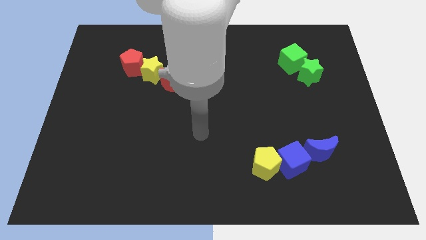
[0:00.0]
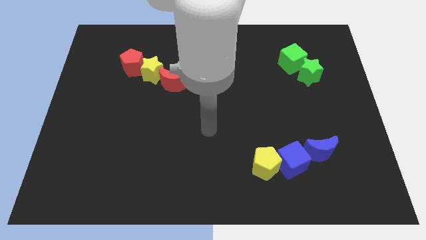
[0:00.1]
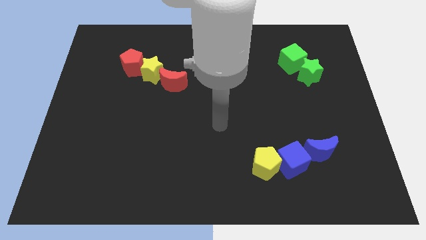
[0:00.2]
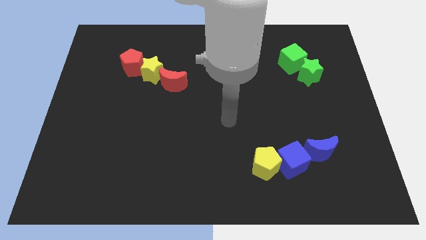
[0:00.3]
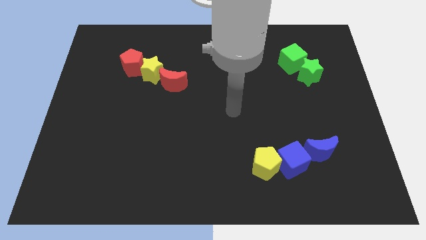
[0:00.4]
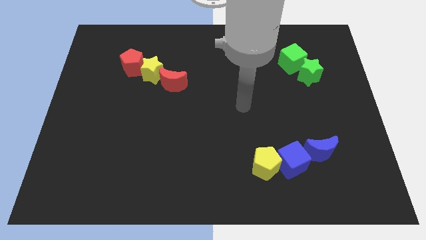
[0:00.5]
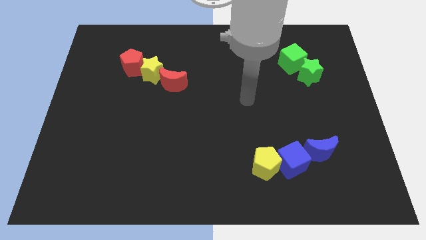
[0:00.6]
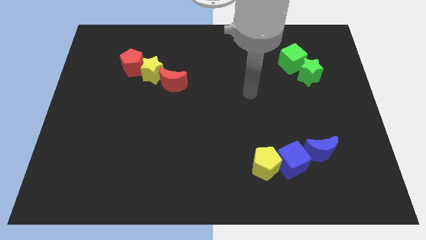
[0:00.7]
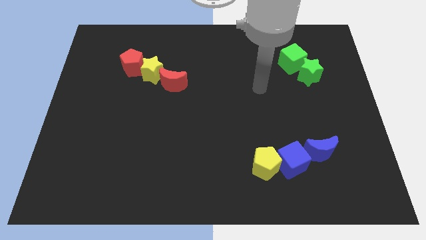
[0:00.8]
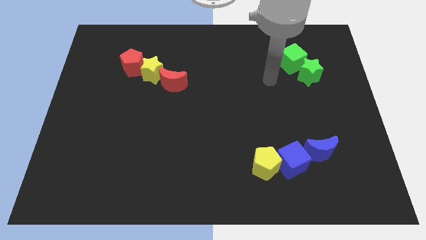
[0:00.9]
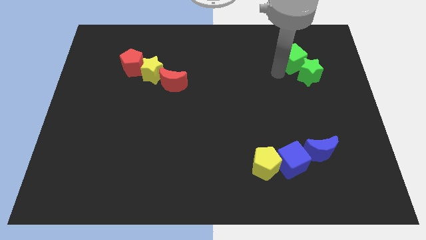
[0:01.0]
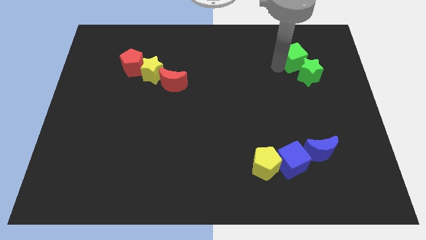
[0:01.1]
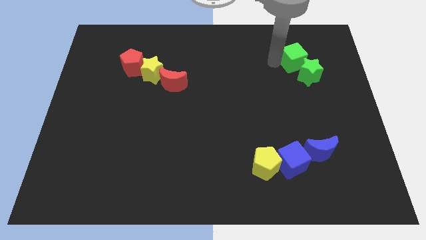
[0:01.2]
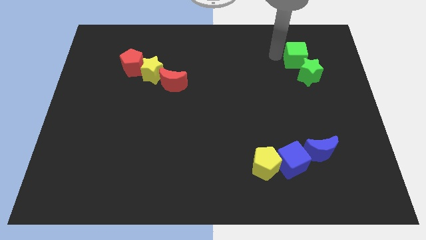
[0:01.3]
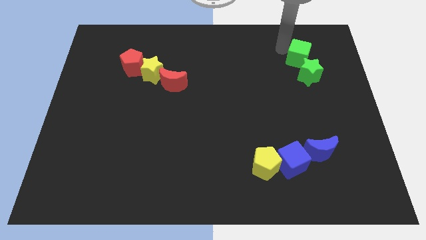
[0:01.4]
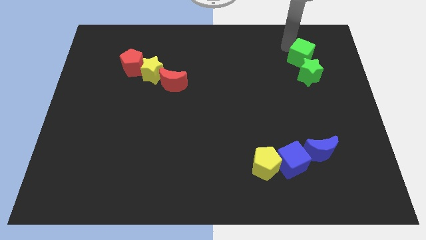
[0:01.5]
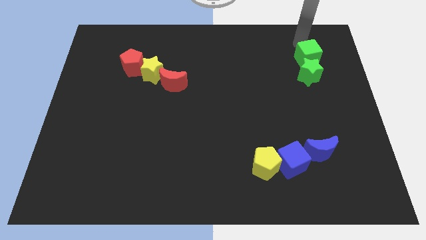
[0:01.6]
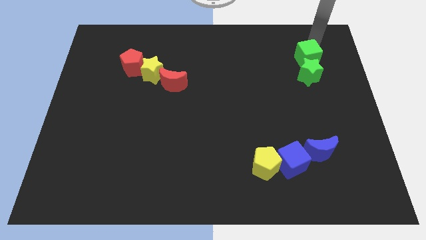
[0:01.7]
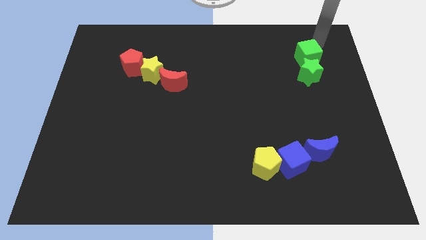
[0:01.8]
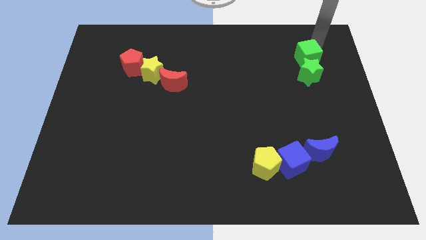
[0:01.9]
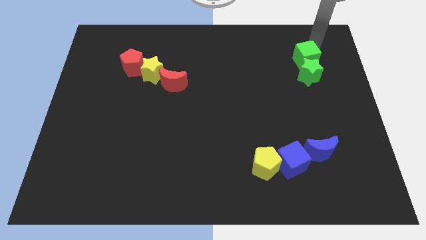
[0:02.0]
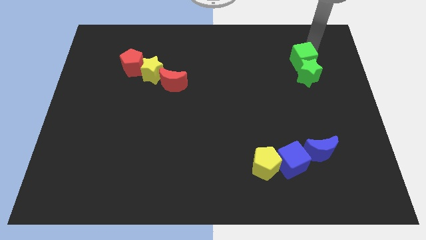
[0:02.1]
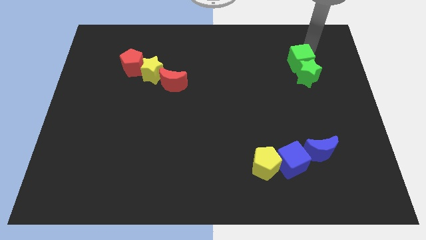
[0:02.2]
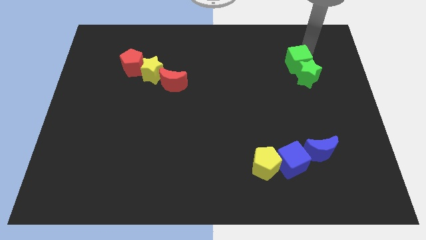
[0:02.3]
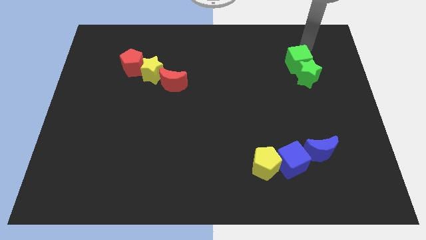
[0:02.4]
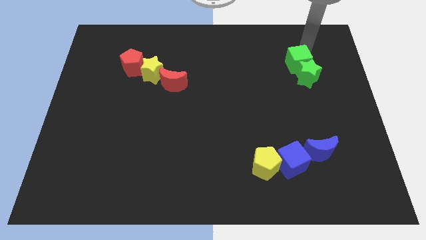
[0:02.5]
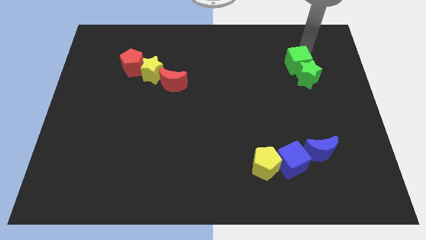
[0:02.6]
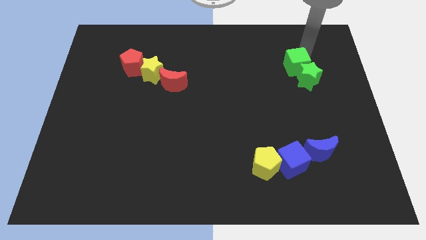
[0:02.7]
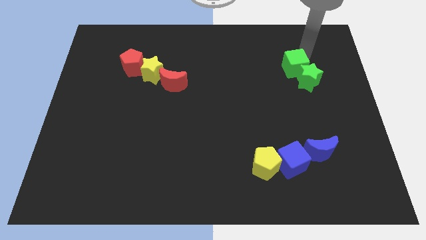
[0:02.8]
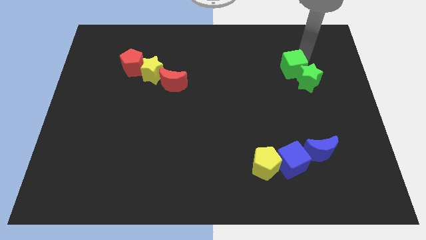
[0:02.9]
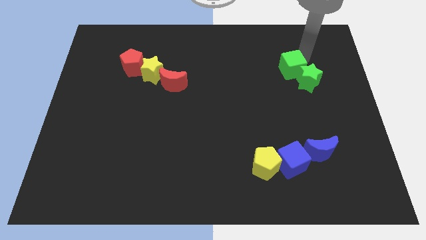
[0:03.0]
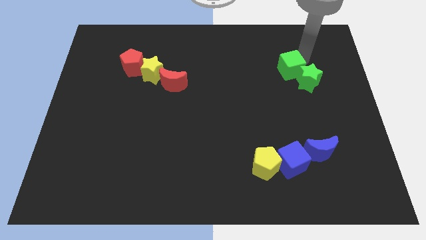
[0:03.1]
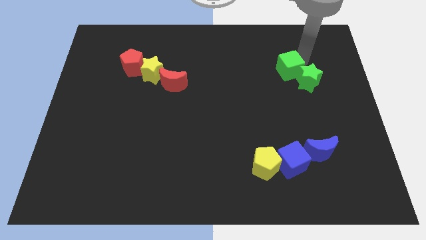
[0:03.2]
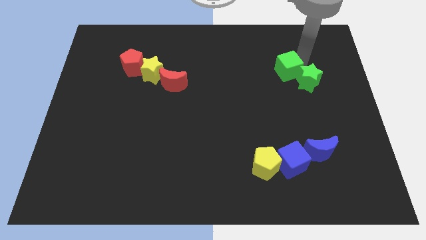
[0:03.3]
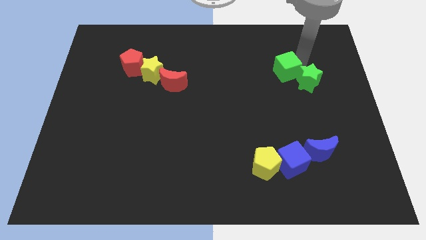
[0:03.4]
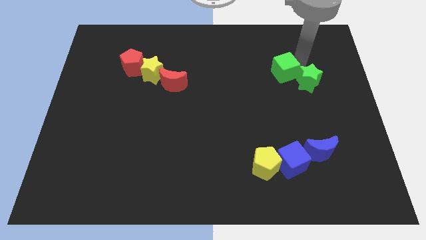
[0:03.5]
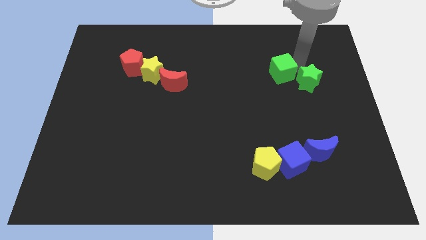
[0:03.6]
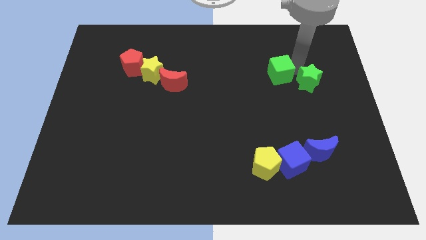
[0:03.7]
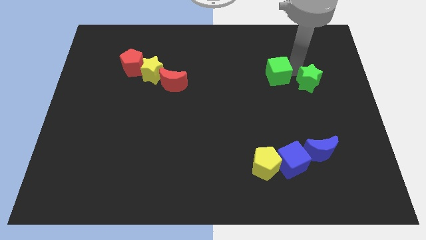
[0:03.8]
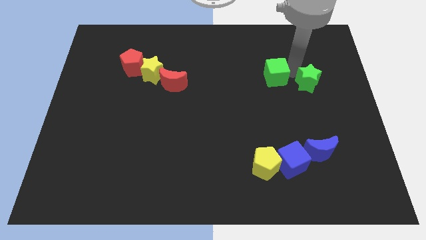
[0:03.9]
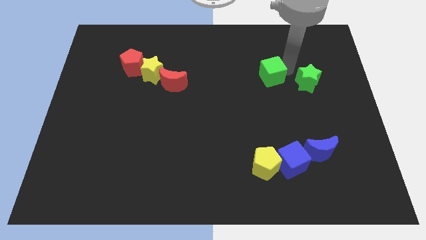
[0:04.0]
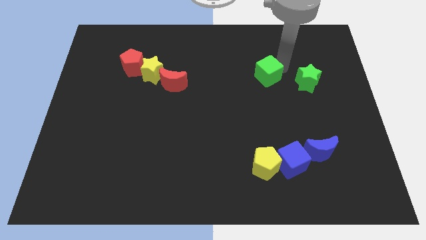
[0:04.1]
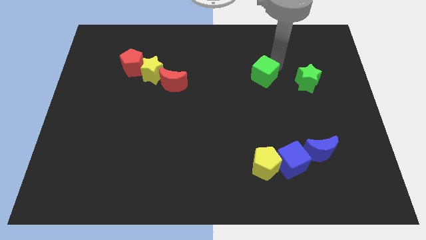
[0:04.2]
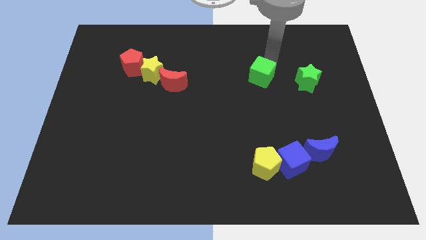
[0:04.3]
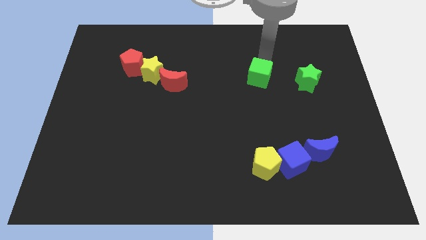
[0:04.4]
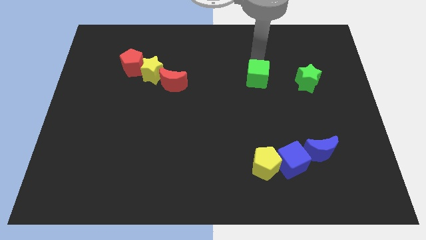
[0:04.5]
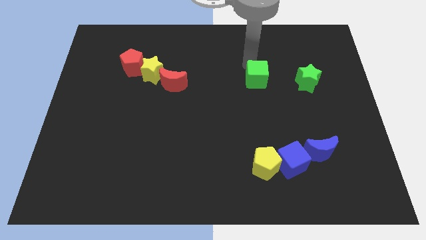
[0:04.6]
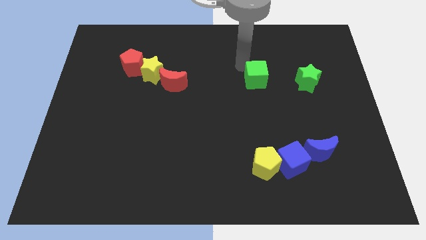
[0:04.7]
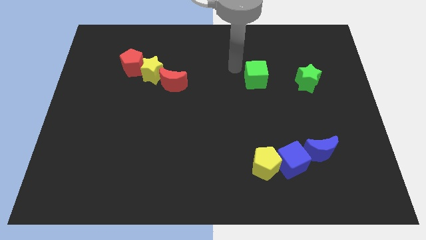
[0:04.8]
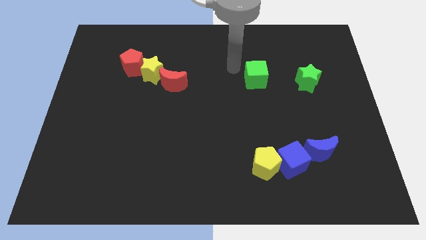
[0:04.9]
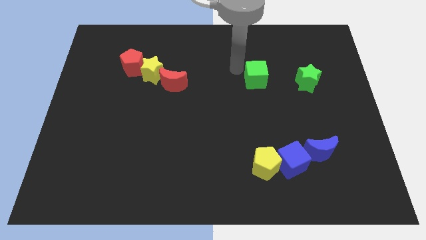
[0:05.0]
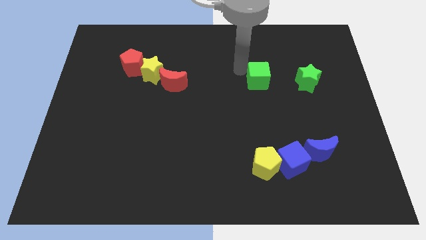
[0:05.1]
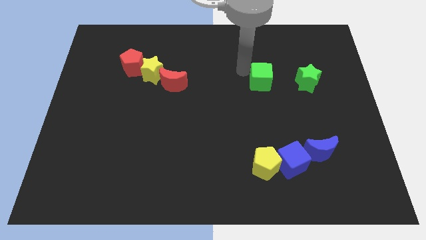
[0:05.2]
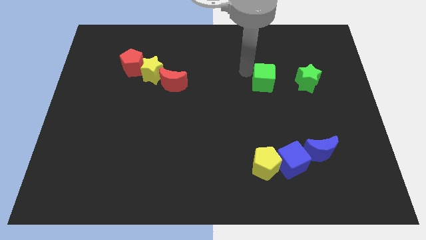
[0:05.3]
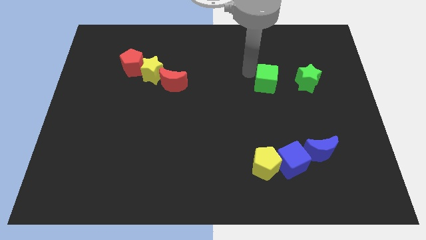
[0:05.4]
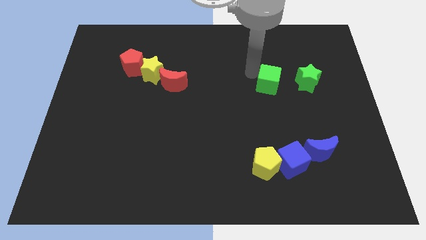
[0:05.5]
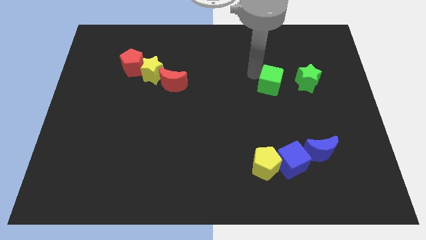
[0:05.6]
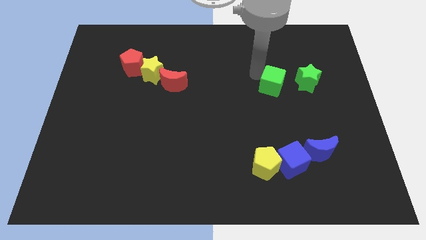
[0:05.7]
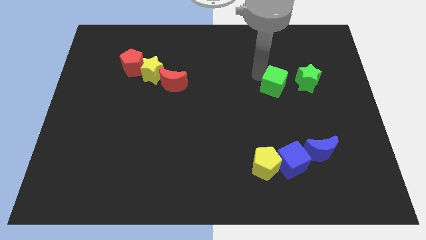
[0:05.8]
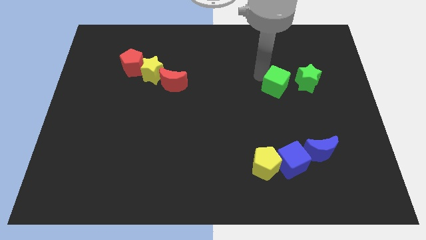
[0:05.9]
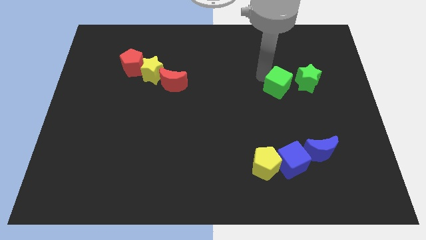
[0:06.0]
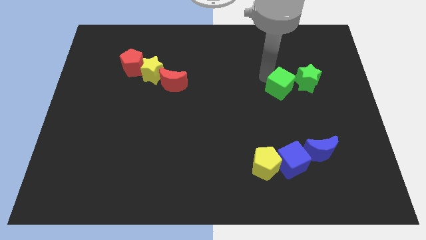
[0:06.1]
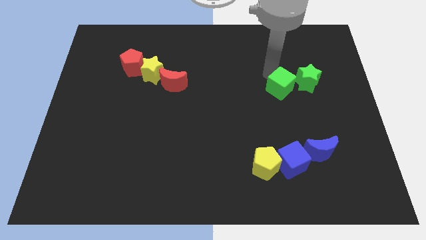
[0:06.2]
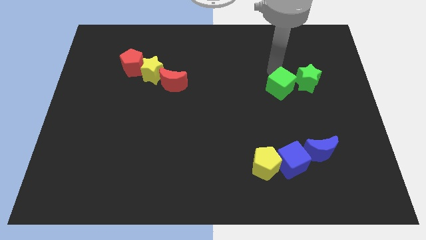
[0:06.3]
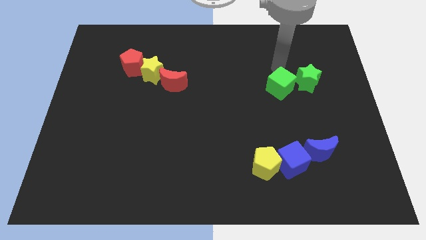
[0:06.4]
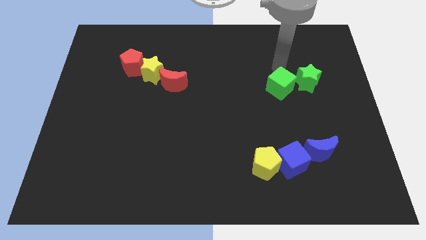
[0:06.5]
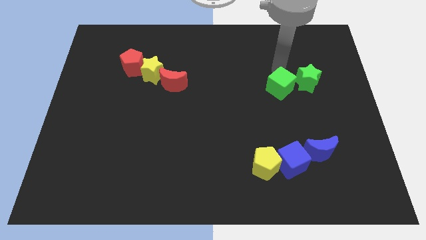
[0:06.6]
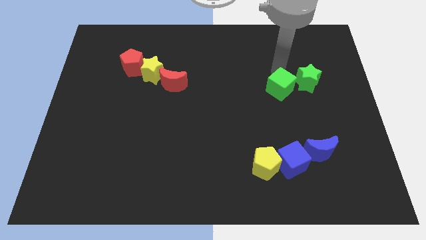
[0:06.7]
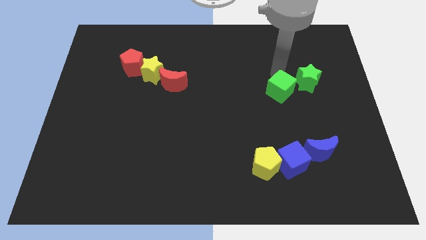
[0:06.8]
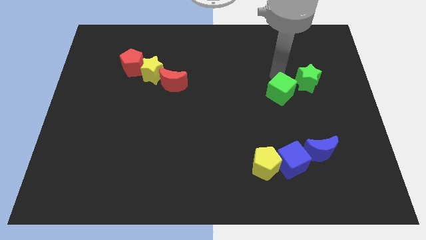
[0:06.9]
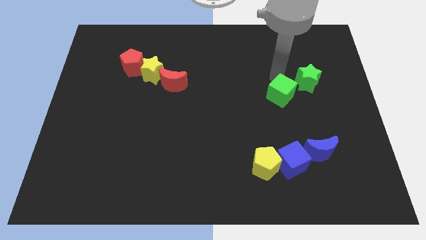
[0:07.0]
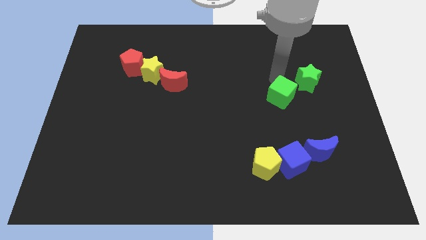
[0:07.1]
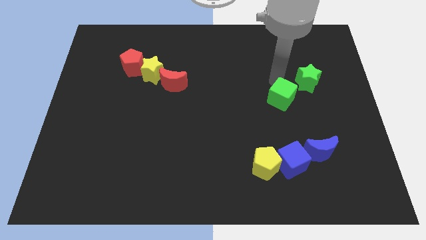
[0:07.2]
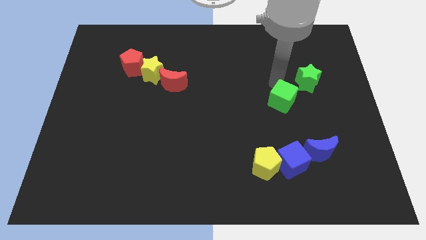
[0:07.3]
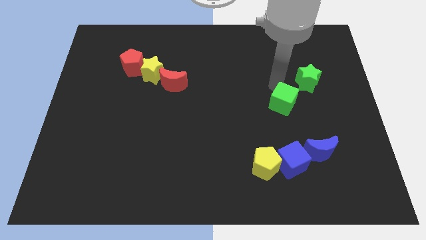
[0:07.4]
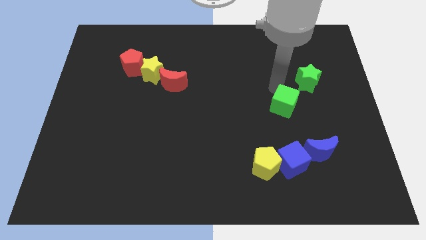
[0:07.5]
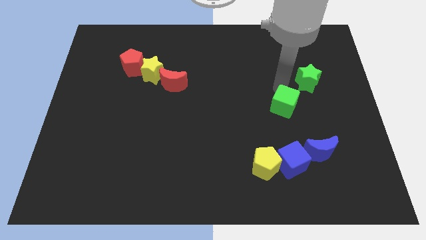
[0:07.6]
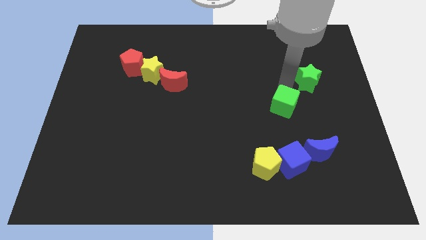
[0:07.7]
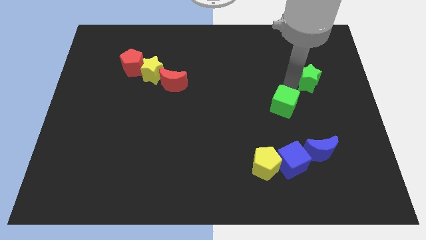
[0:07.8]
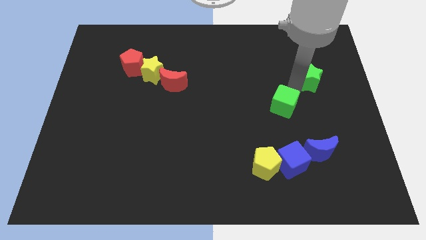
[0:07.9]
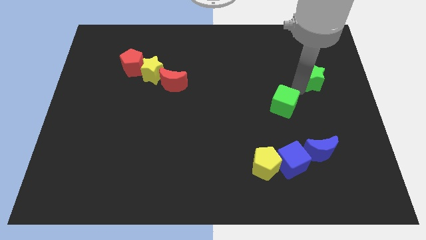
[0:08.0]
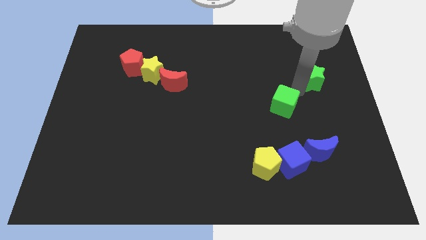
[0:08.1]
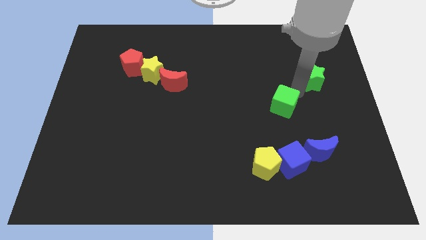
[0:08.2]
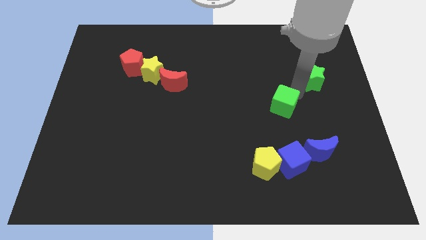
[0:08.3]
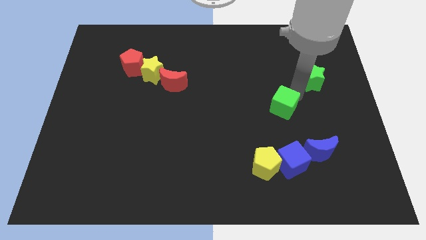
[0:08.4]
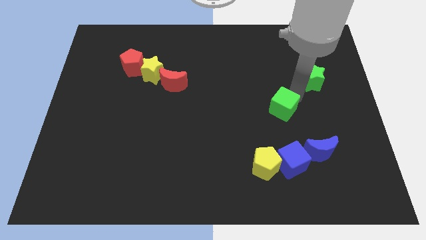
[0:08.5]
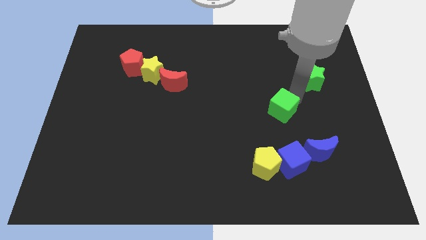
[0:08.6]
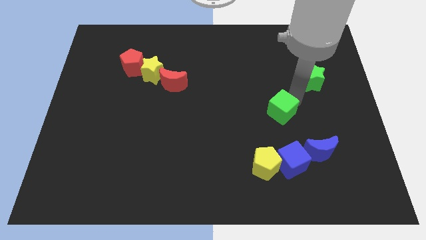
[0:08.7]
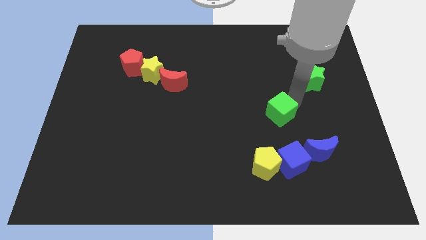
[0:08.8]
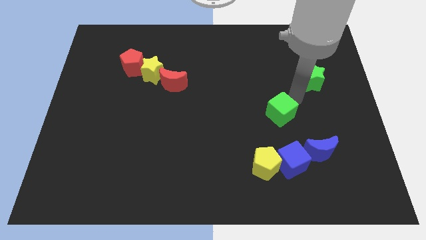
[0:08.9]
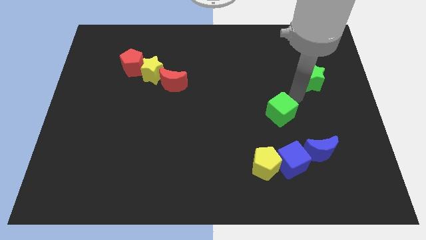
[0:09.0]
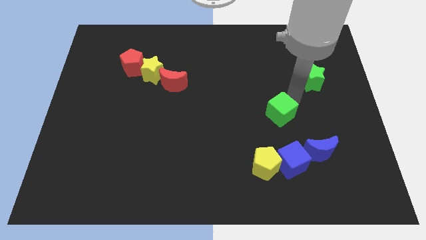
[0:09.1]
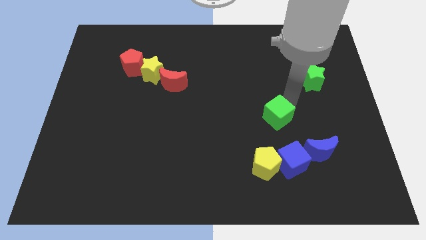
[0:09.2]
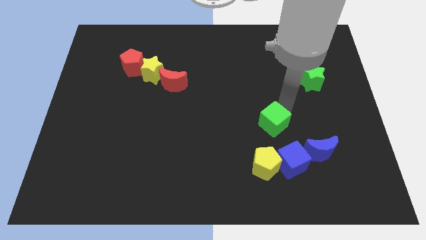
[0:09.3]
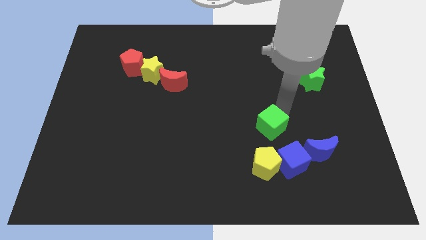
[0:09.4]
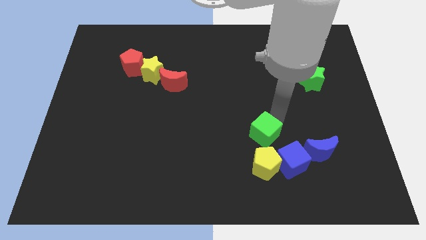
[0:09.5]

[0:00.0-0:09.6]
put the green cube to the left of the blue moon
